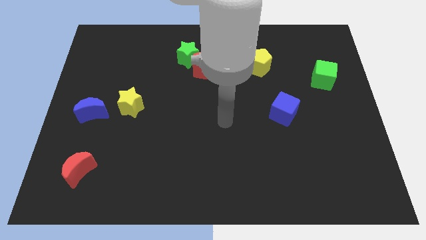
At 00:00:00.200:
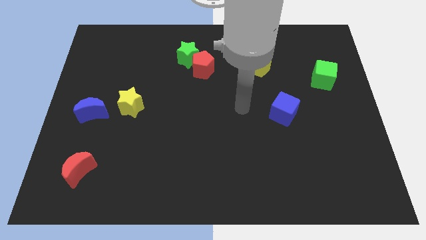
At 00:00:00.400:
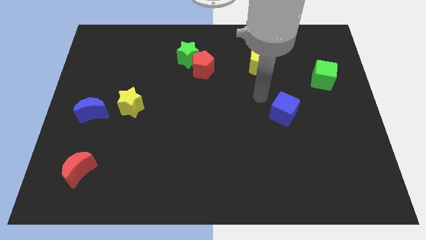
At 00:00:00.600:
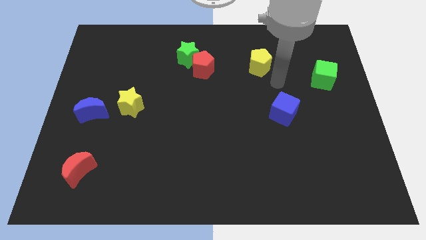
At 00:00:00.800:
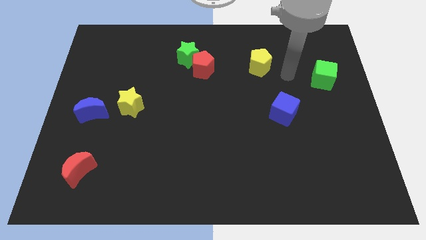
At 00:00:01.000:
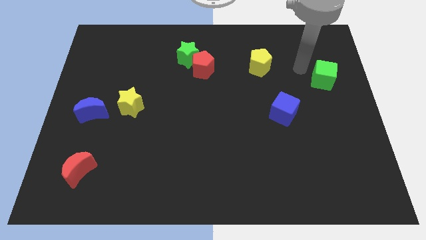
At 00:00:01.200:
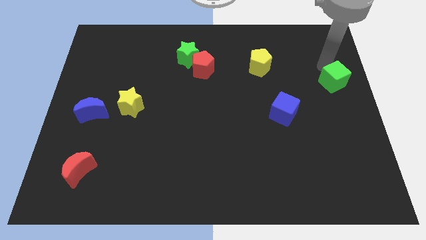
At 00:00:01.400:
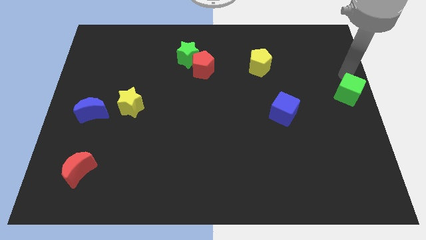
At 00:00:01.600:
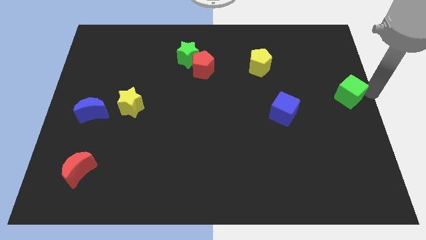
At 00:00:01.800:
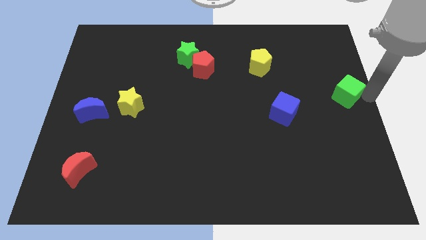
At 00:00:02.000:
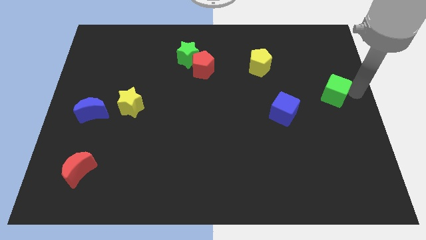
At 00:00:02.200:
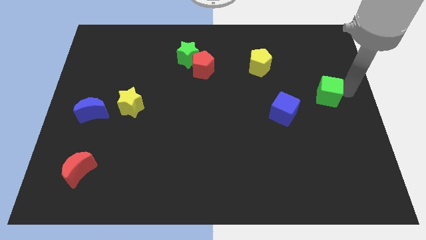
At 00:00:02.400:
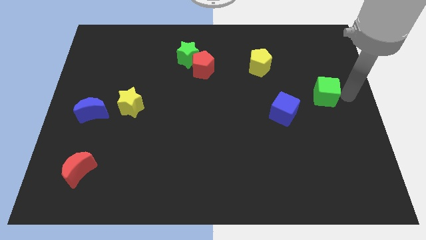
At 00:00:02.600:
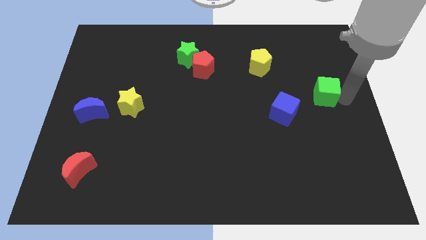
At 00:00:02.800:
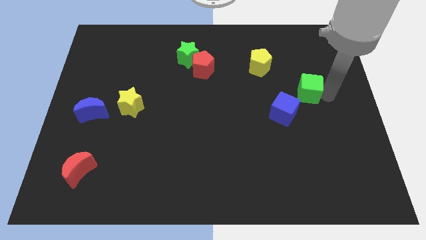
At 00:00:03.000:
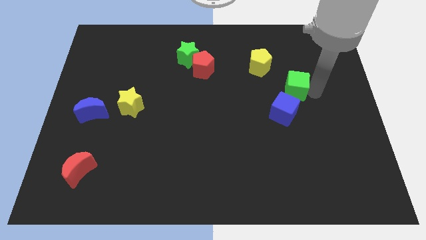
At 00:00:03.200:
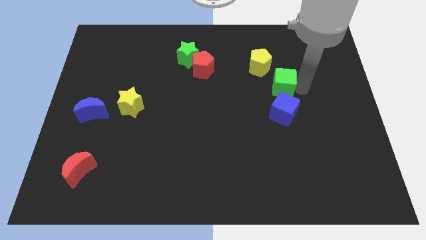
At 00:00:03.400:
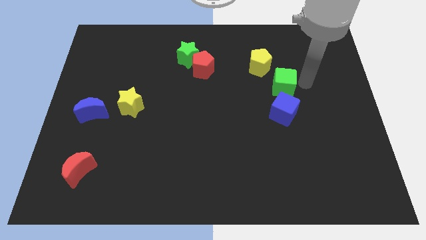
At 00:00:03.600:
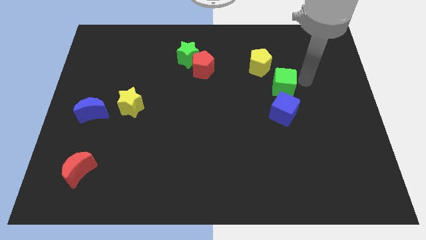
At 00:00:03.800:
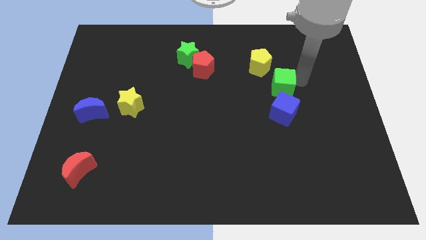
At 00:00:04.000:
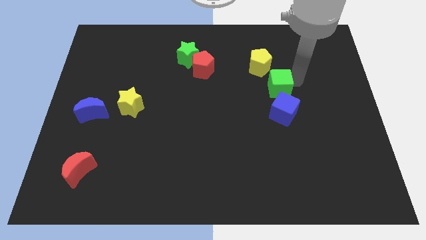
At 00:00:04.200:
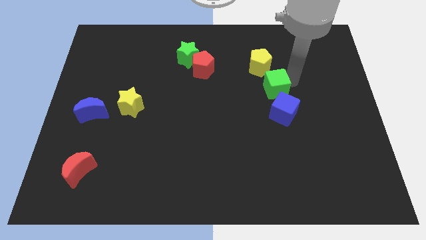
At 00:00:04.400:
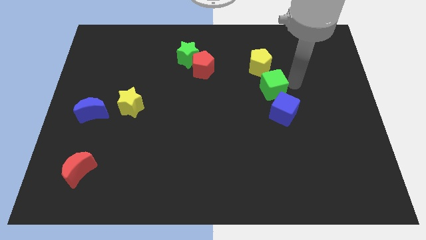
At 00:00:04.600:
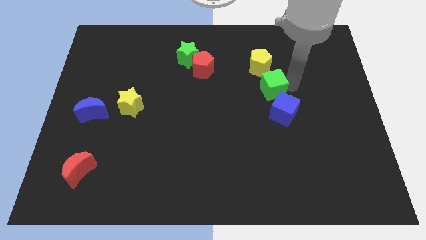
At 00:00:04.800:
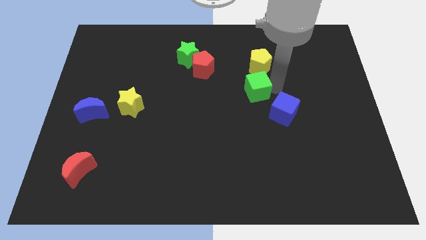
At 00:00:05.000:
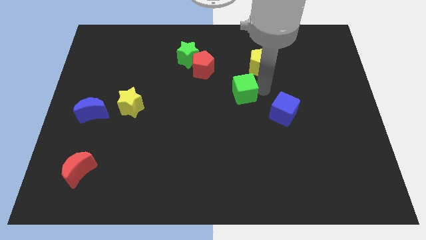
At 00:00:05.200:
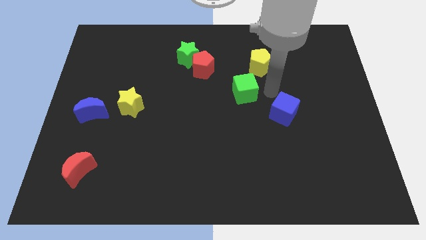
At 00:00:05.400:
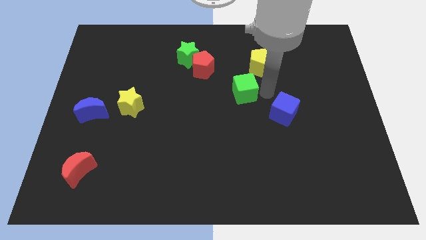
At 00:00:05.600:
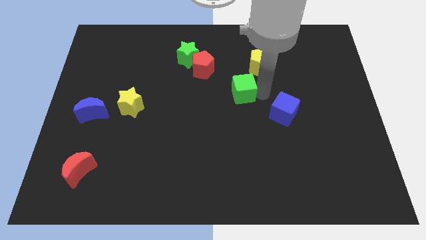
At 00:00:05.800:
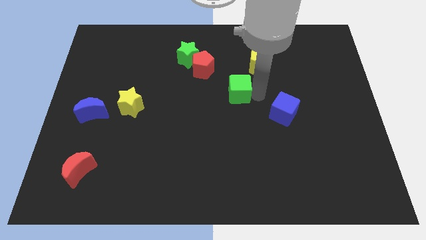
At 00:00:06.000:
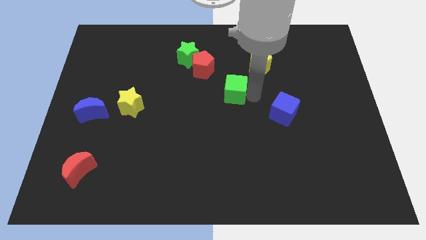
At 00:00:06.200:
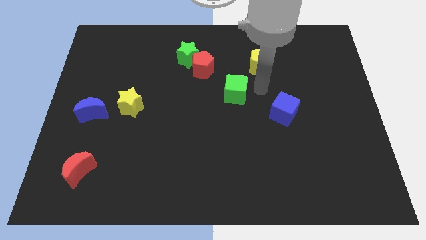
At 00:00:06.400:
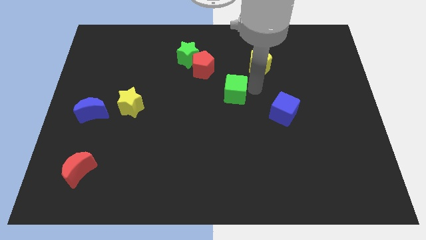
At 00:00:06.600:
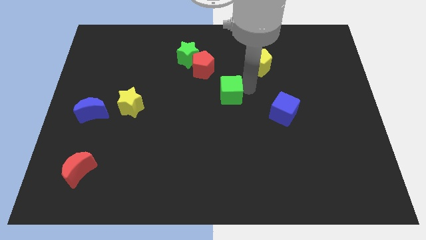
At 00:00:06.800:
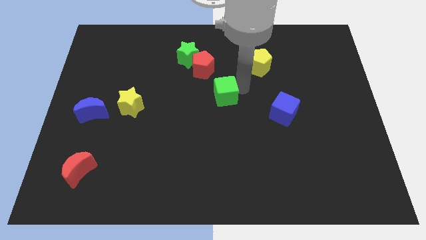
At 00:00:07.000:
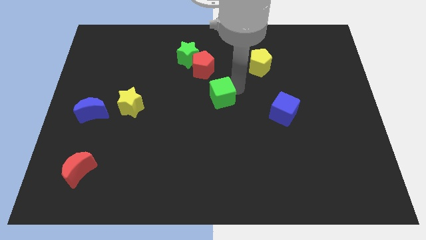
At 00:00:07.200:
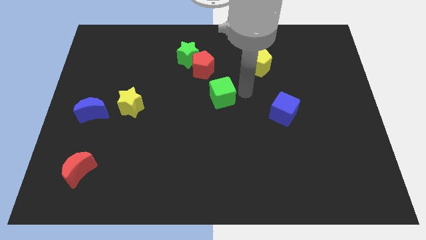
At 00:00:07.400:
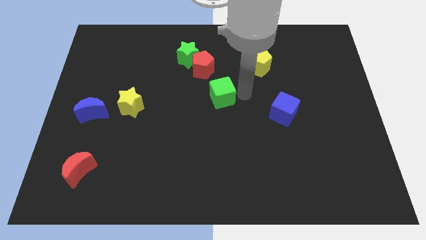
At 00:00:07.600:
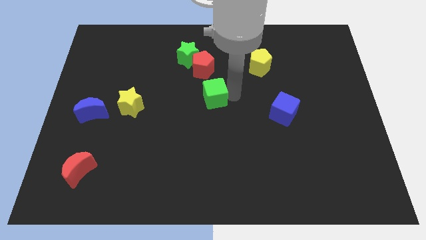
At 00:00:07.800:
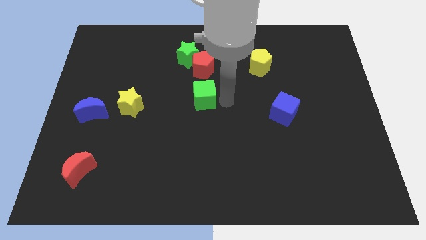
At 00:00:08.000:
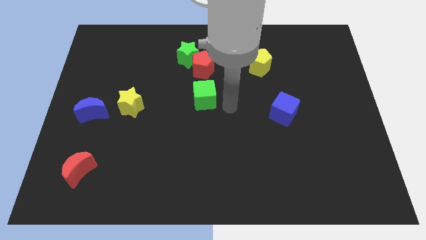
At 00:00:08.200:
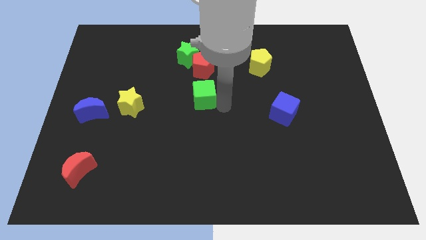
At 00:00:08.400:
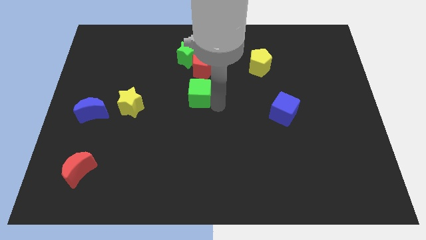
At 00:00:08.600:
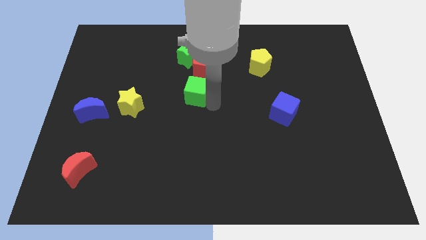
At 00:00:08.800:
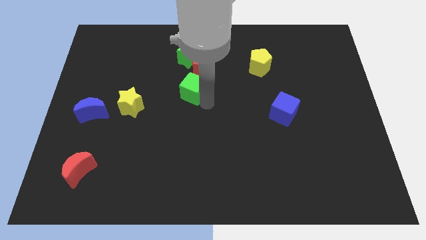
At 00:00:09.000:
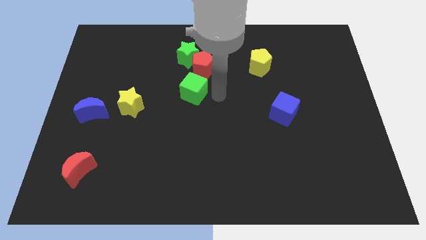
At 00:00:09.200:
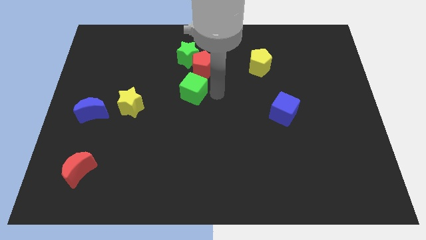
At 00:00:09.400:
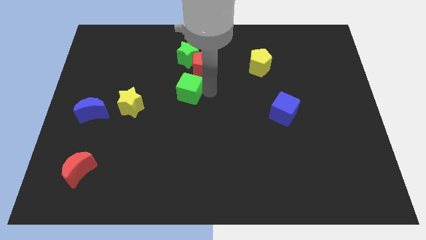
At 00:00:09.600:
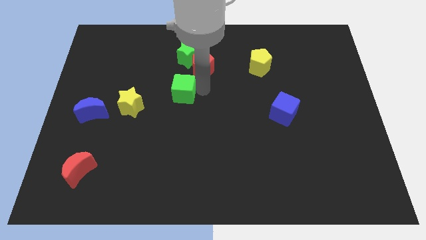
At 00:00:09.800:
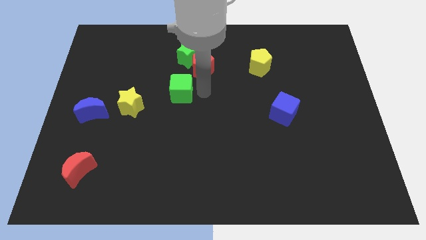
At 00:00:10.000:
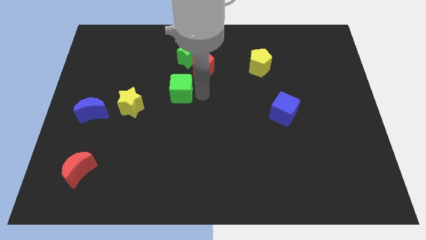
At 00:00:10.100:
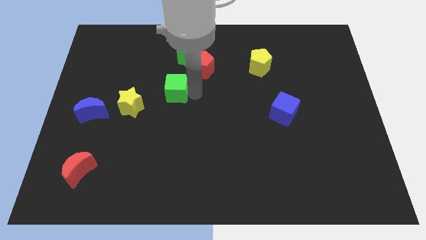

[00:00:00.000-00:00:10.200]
put the green cube diagonally up and to the right of the yellow star

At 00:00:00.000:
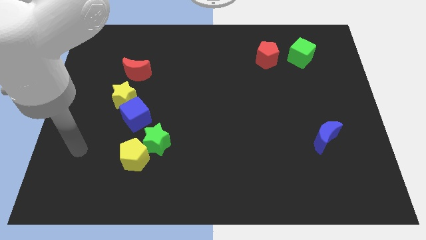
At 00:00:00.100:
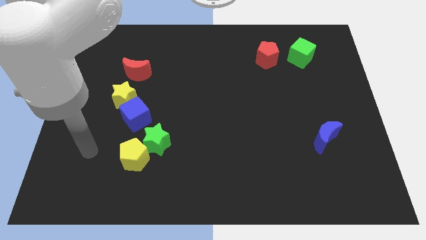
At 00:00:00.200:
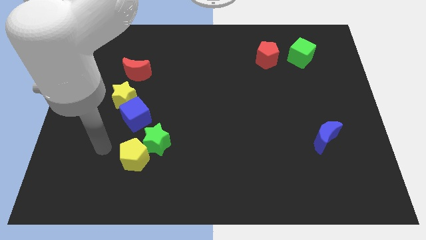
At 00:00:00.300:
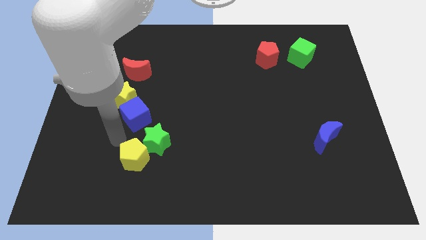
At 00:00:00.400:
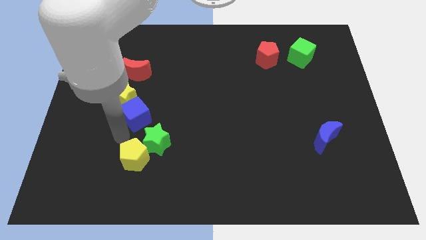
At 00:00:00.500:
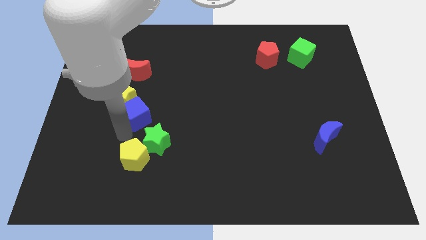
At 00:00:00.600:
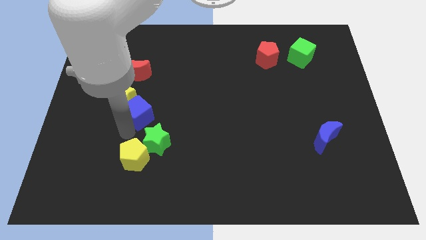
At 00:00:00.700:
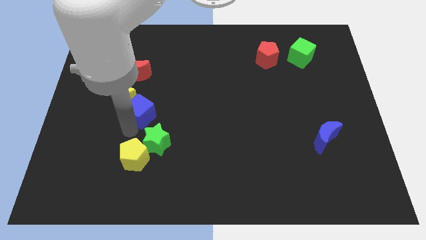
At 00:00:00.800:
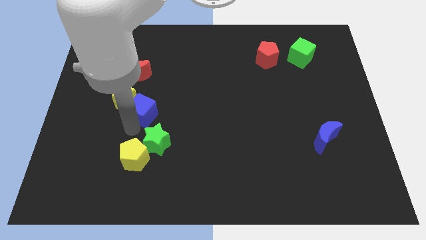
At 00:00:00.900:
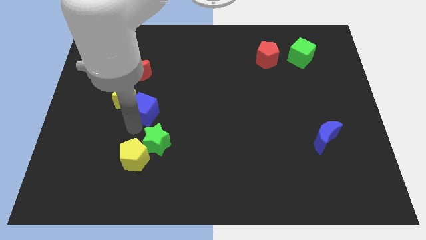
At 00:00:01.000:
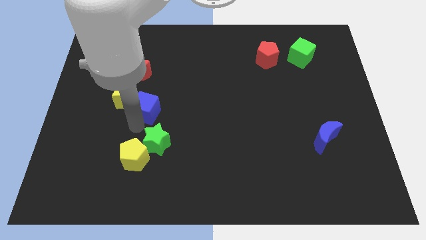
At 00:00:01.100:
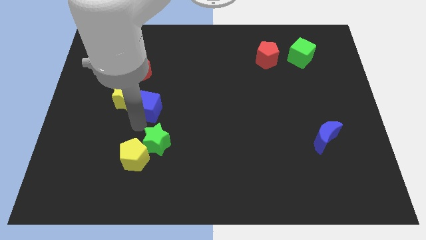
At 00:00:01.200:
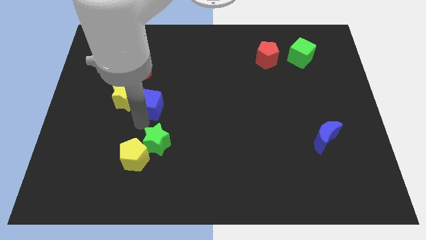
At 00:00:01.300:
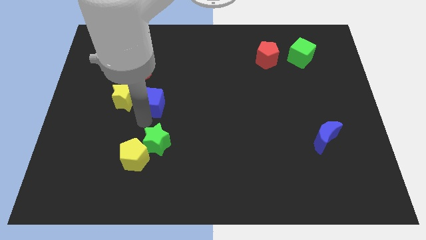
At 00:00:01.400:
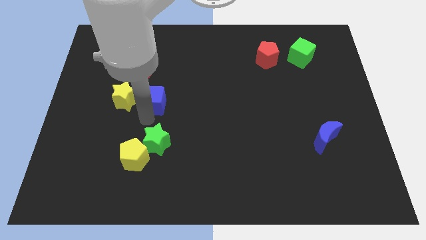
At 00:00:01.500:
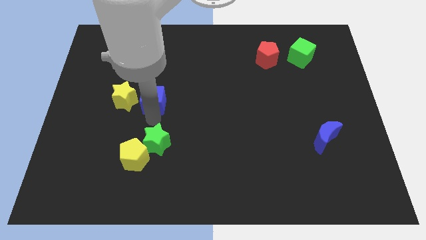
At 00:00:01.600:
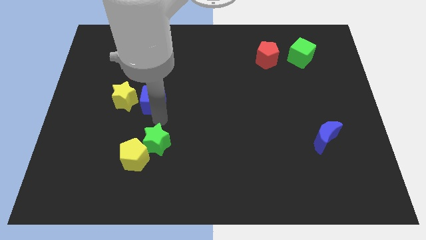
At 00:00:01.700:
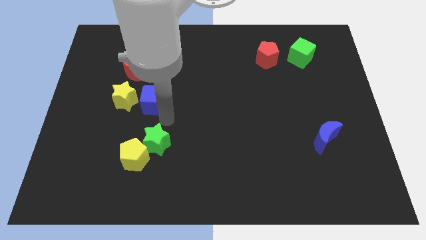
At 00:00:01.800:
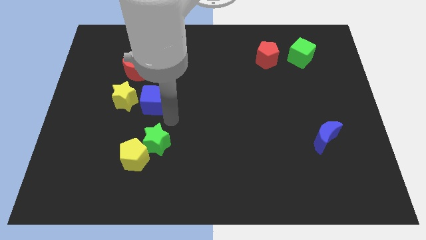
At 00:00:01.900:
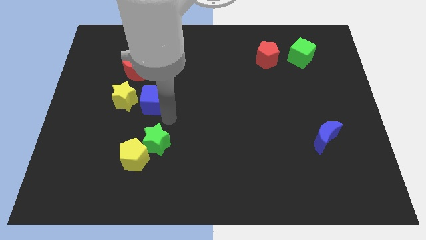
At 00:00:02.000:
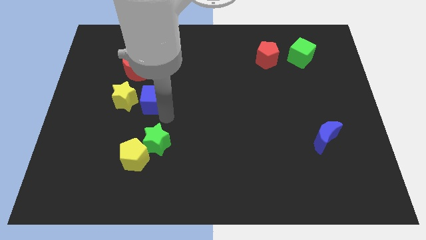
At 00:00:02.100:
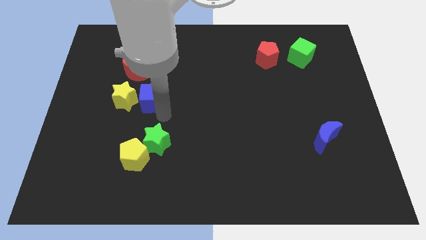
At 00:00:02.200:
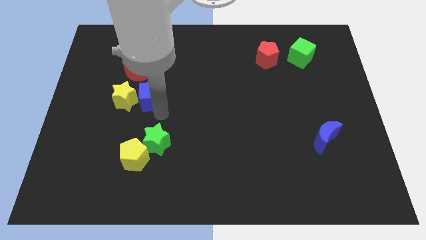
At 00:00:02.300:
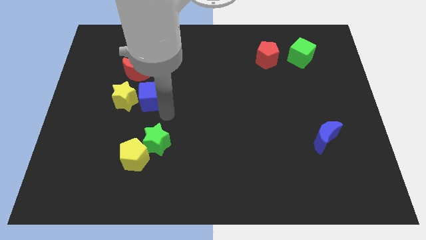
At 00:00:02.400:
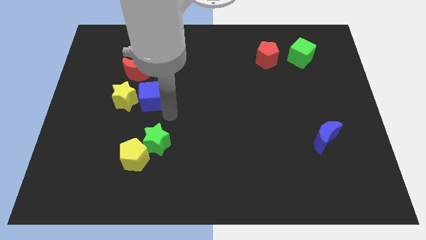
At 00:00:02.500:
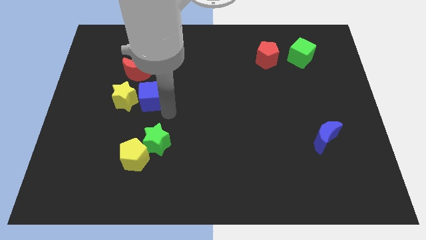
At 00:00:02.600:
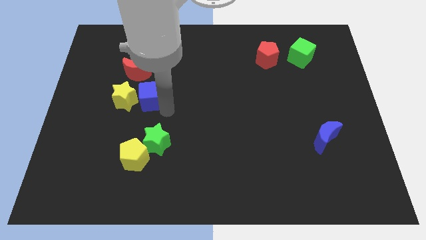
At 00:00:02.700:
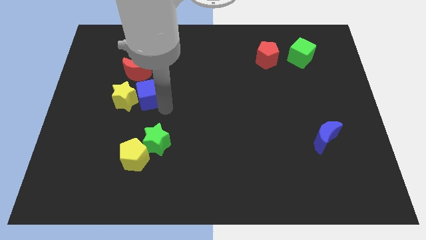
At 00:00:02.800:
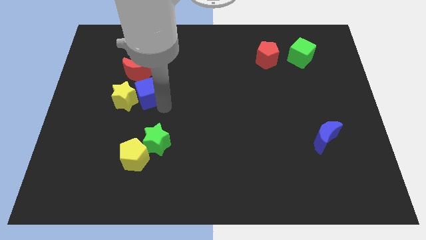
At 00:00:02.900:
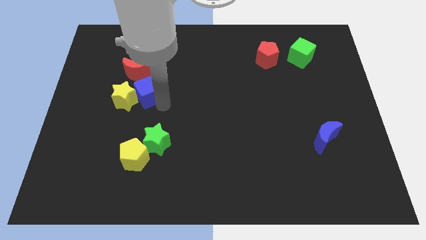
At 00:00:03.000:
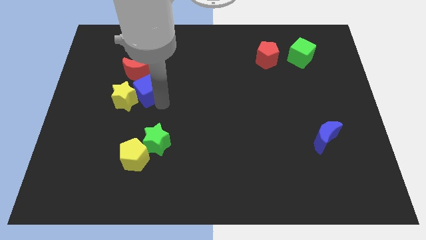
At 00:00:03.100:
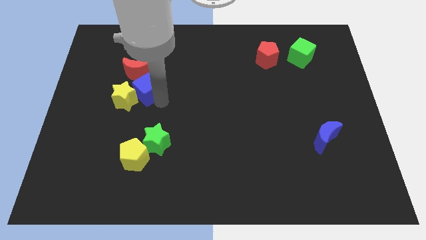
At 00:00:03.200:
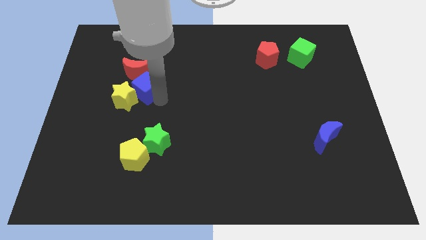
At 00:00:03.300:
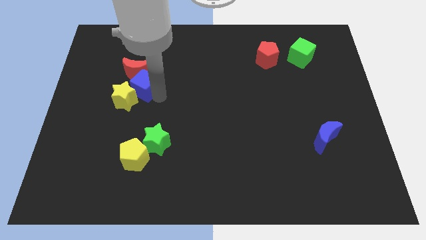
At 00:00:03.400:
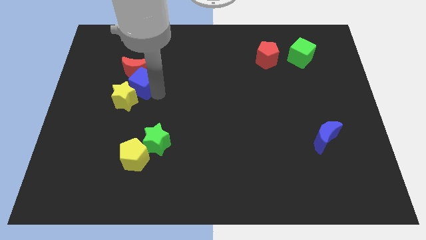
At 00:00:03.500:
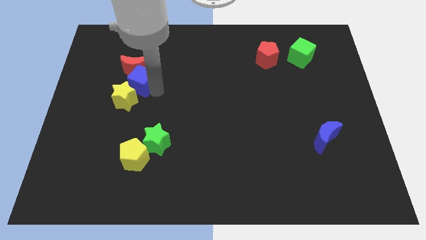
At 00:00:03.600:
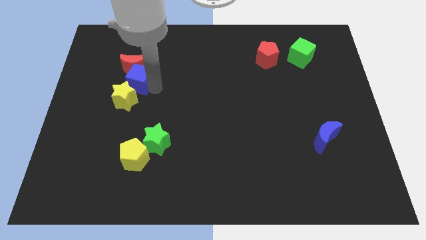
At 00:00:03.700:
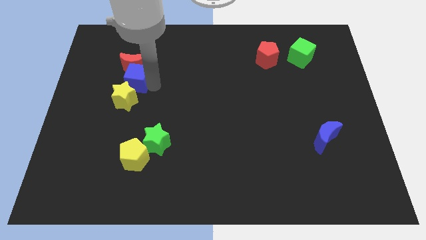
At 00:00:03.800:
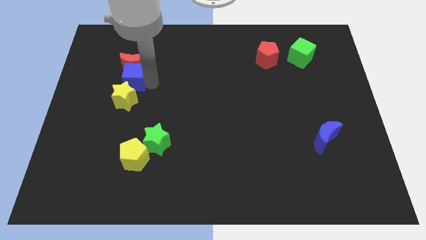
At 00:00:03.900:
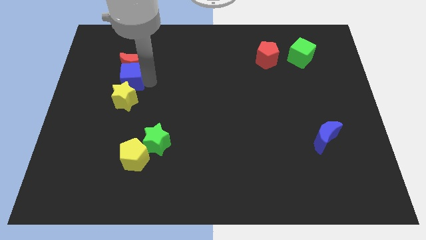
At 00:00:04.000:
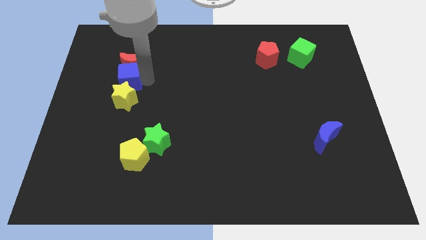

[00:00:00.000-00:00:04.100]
slide the blue cube to the top left of the yellow star
